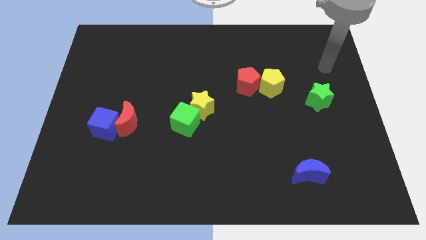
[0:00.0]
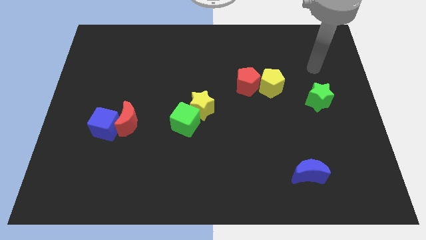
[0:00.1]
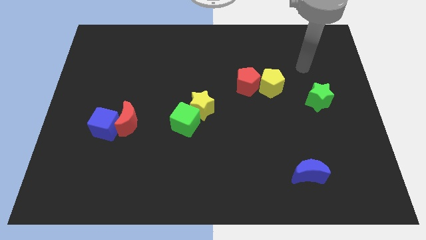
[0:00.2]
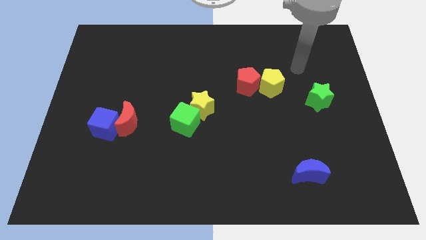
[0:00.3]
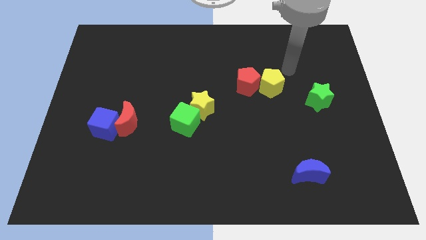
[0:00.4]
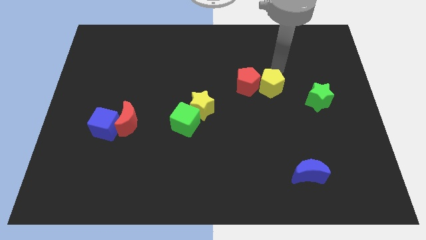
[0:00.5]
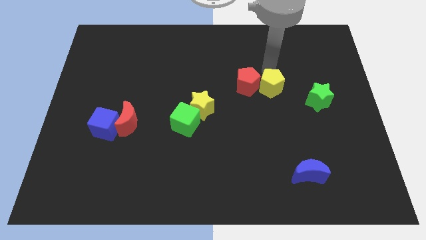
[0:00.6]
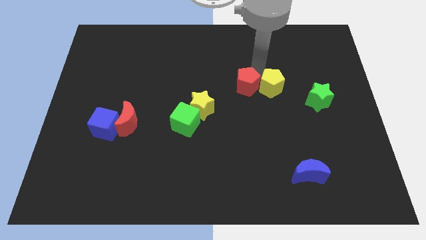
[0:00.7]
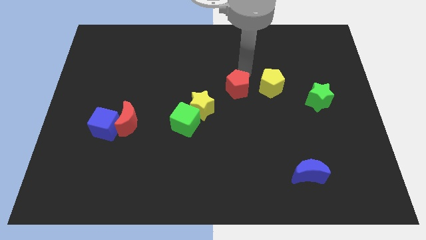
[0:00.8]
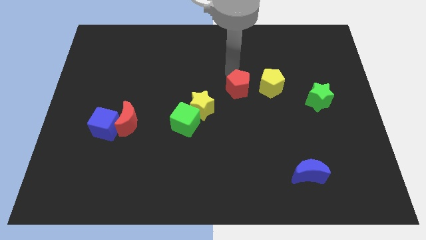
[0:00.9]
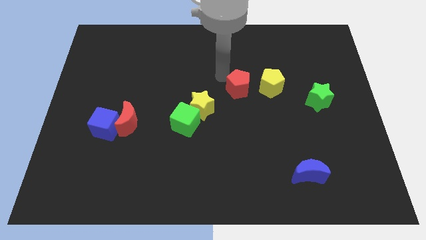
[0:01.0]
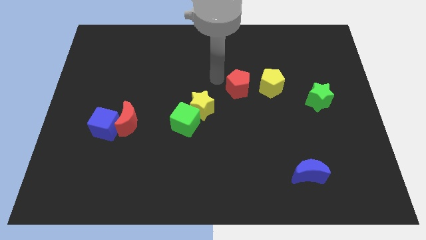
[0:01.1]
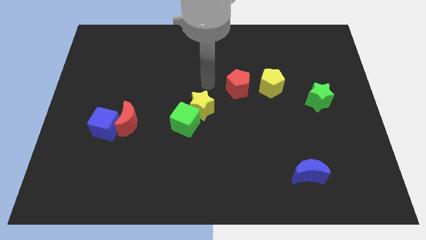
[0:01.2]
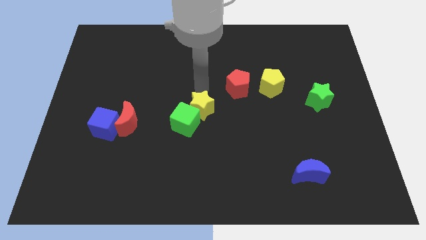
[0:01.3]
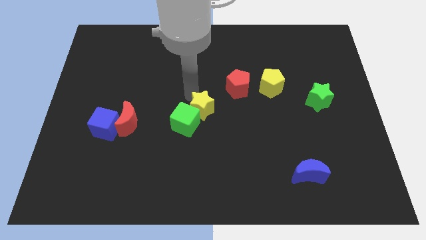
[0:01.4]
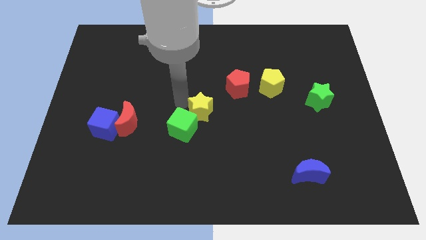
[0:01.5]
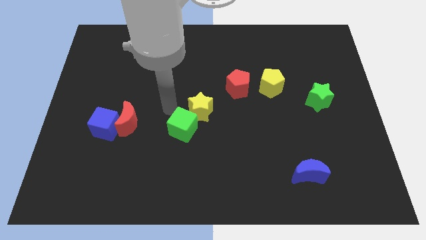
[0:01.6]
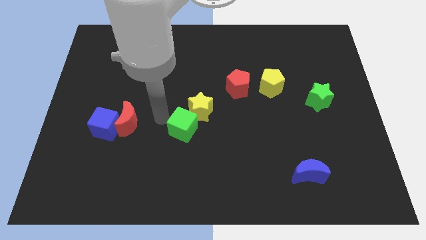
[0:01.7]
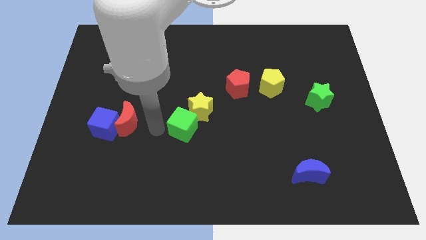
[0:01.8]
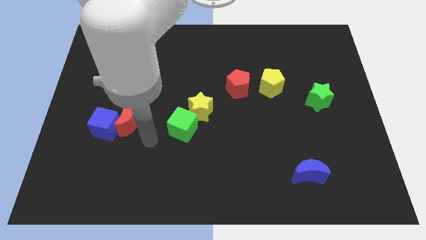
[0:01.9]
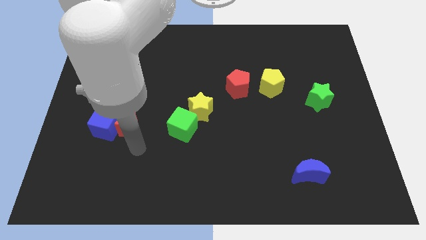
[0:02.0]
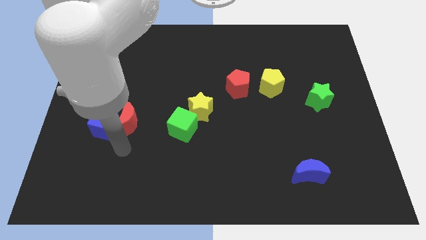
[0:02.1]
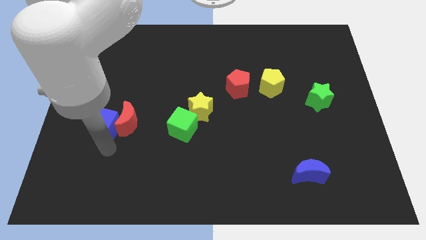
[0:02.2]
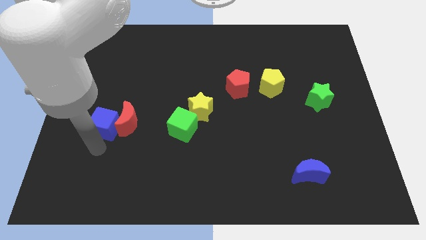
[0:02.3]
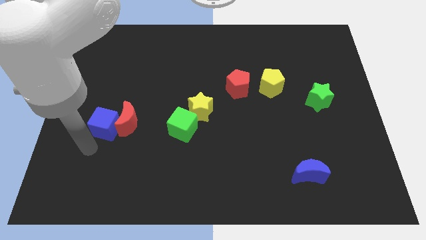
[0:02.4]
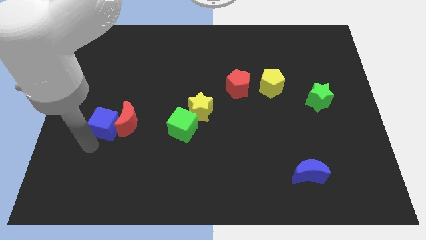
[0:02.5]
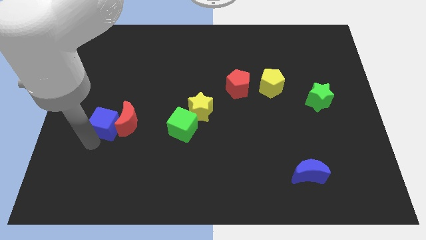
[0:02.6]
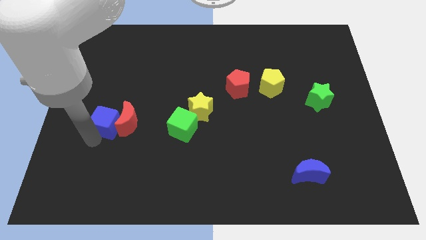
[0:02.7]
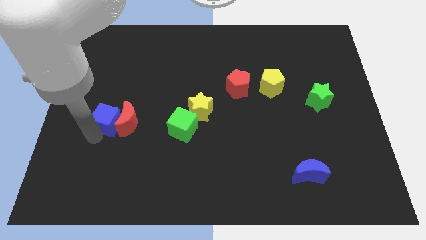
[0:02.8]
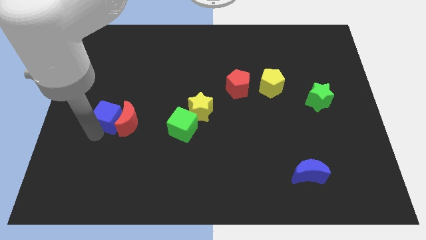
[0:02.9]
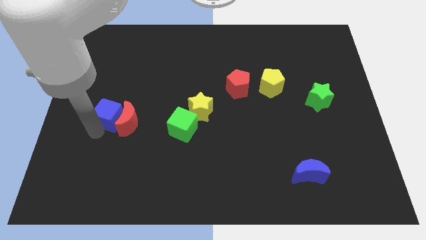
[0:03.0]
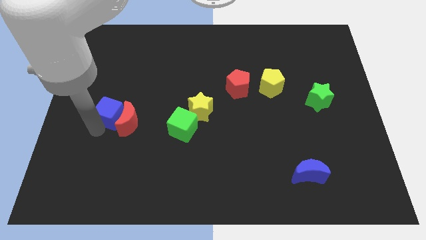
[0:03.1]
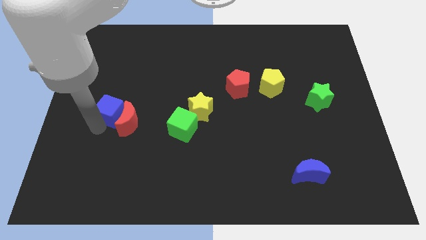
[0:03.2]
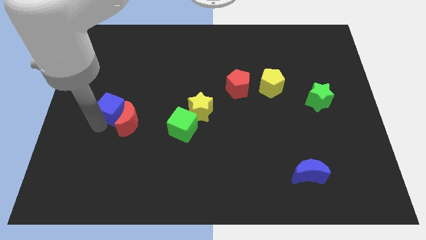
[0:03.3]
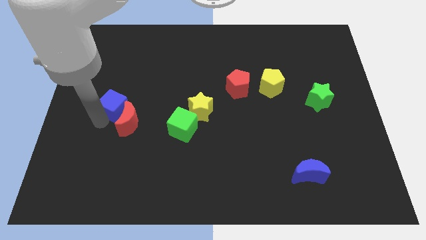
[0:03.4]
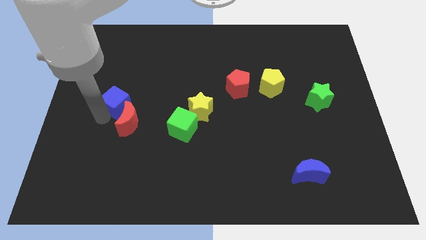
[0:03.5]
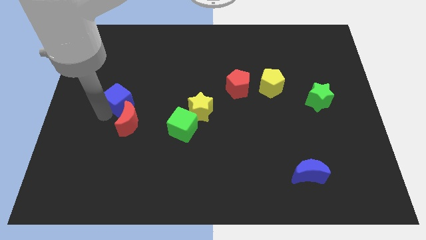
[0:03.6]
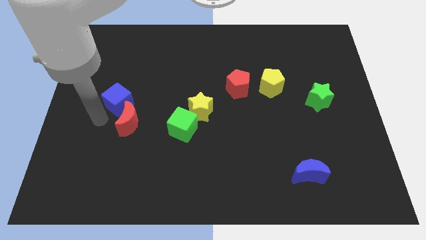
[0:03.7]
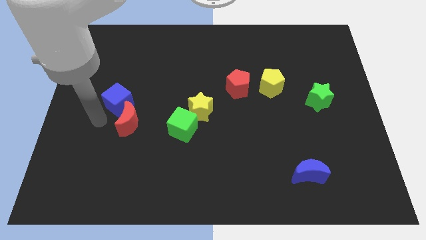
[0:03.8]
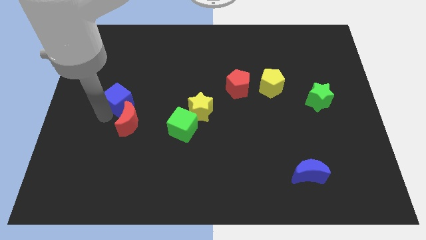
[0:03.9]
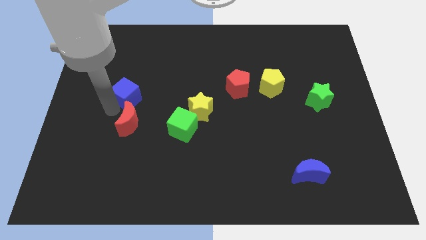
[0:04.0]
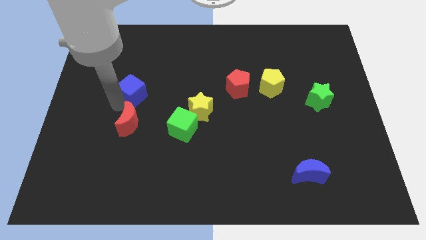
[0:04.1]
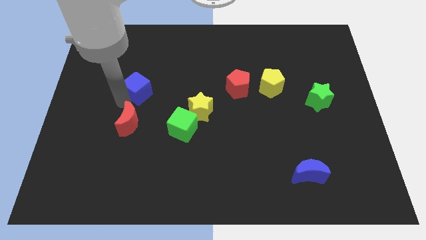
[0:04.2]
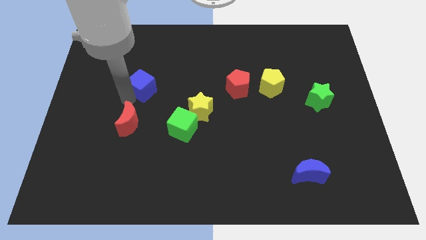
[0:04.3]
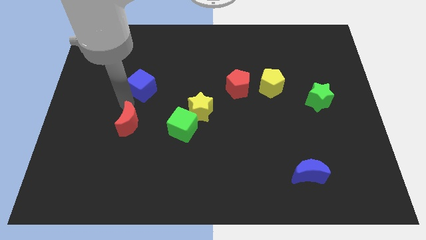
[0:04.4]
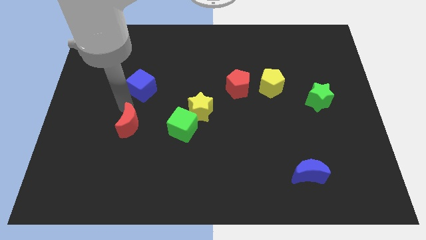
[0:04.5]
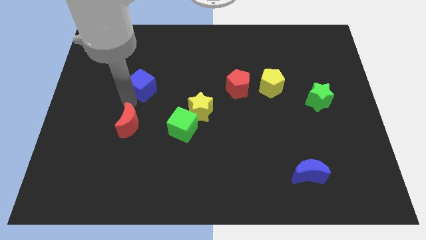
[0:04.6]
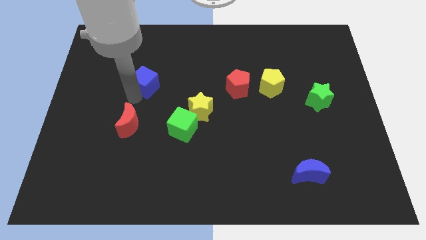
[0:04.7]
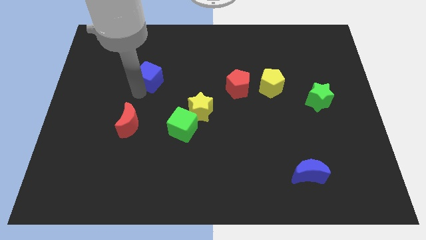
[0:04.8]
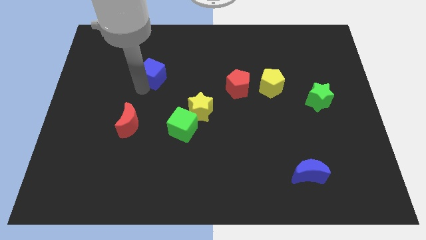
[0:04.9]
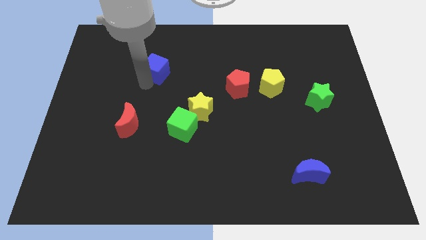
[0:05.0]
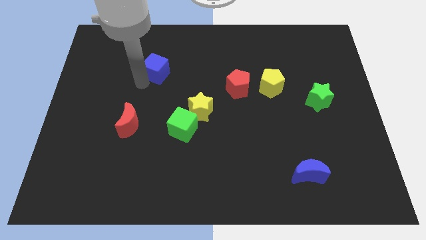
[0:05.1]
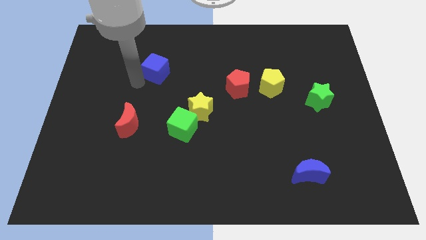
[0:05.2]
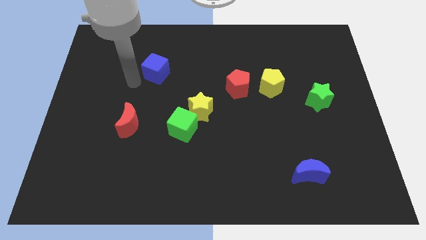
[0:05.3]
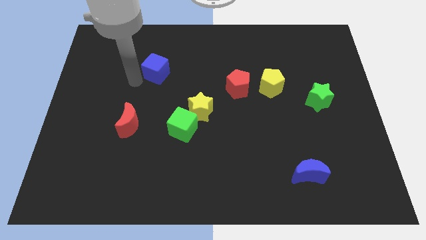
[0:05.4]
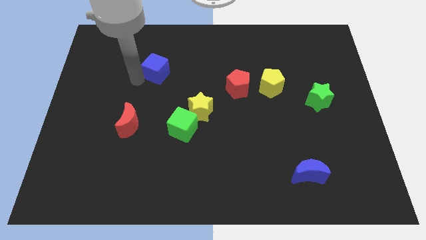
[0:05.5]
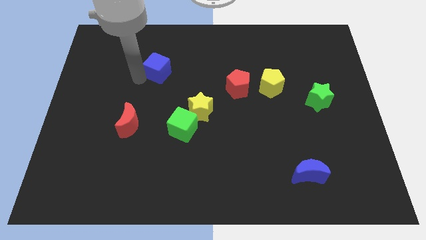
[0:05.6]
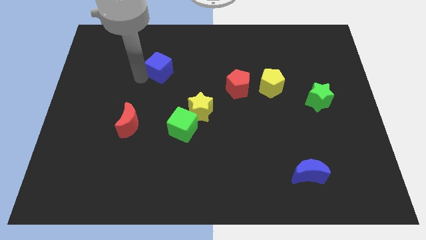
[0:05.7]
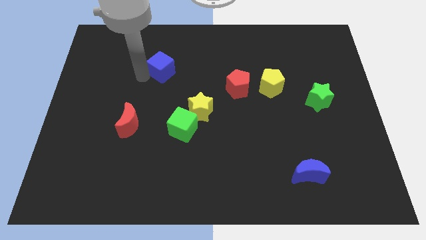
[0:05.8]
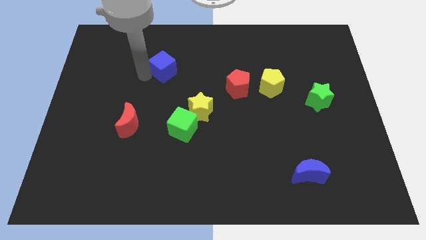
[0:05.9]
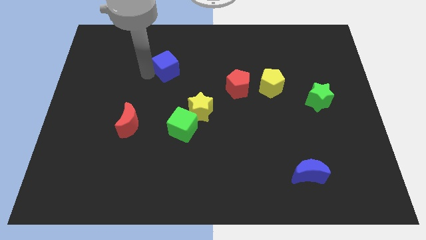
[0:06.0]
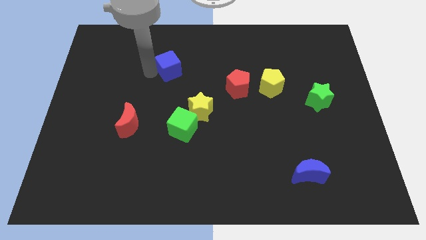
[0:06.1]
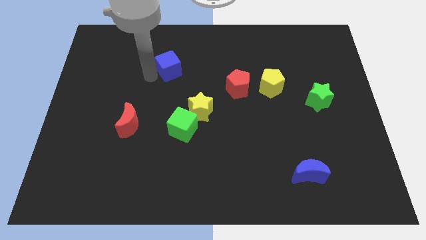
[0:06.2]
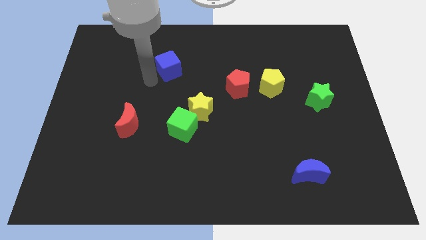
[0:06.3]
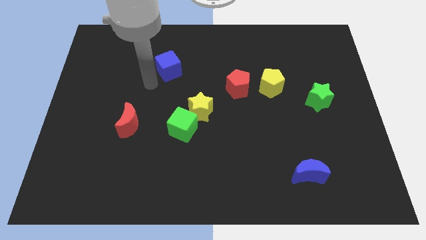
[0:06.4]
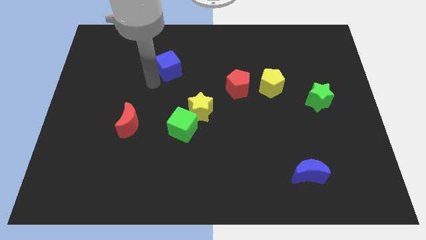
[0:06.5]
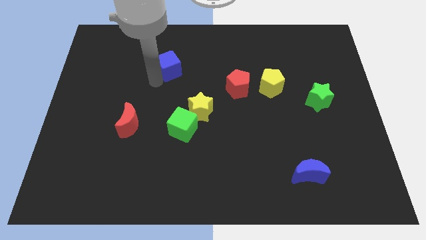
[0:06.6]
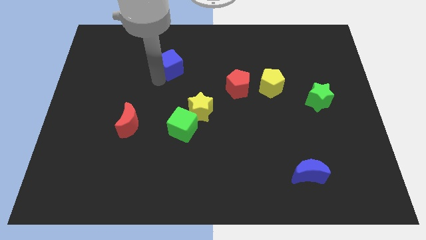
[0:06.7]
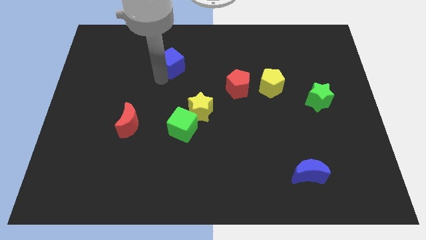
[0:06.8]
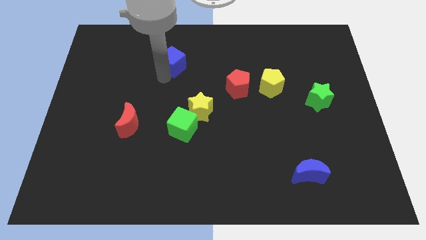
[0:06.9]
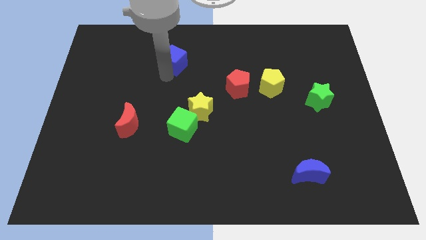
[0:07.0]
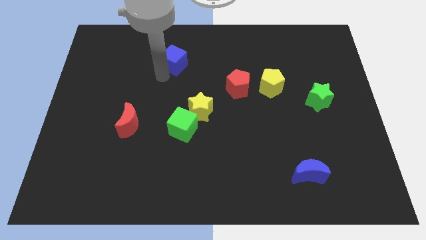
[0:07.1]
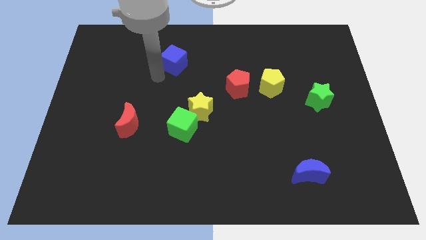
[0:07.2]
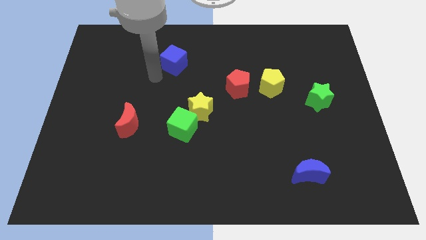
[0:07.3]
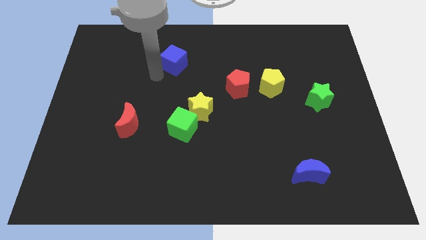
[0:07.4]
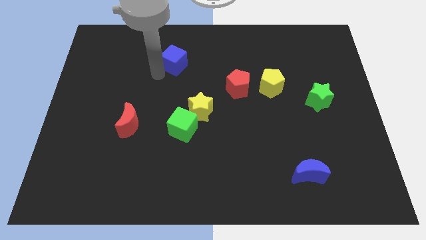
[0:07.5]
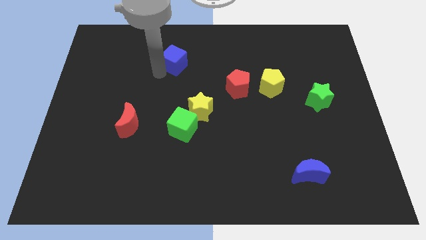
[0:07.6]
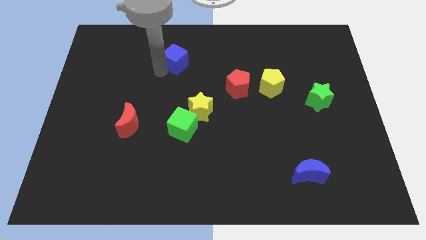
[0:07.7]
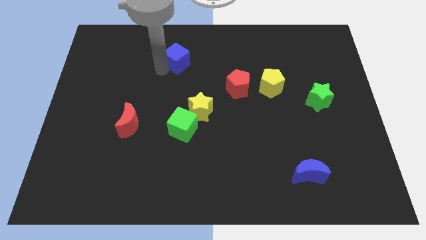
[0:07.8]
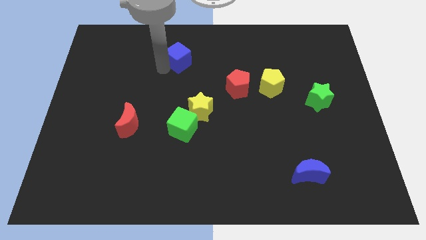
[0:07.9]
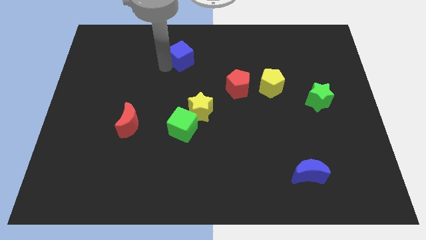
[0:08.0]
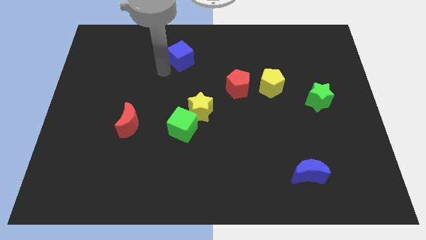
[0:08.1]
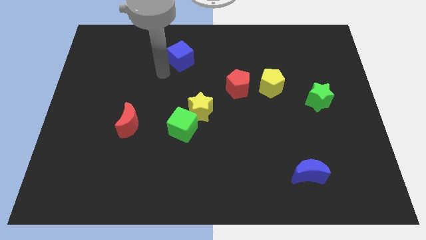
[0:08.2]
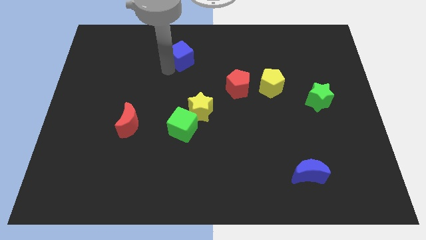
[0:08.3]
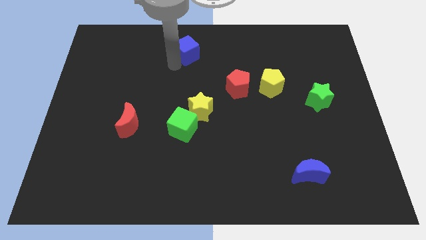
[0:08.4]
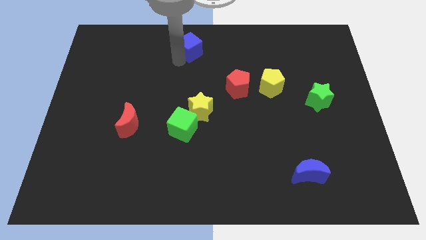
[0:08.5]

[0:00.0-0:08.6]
push the blue cube to the towards your base
